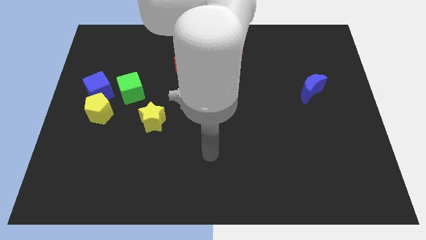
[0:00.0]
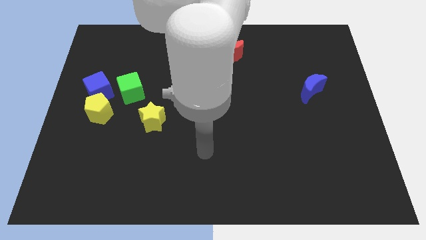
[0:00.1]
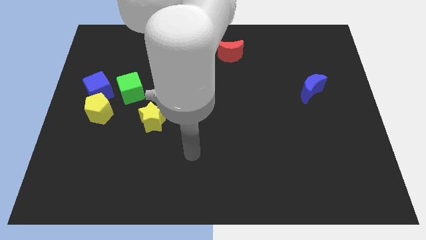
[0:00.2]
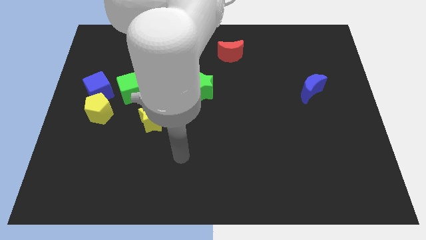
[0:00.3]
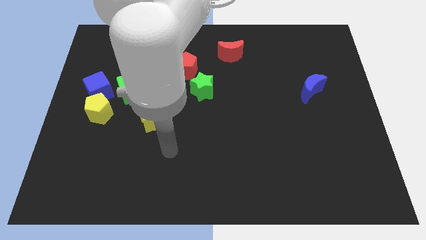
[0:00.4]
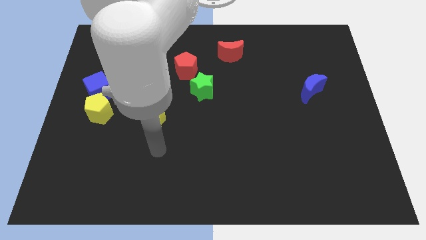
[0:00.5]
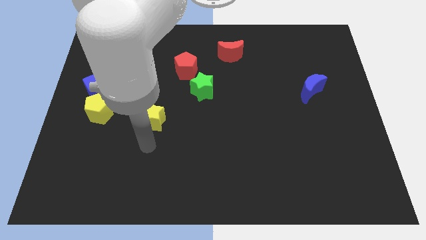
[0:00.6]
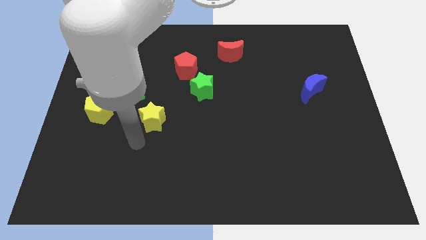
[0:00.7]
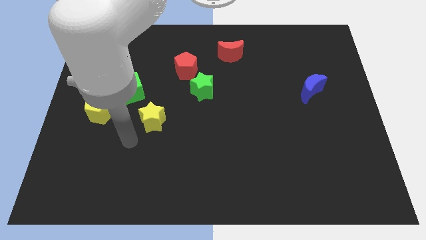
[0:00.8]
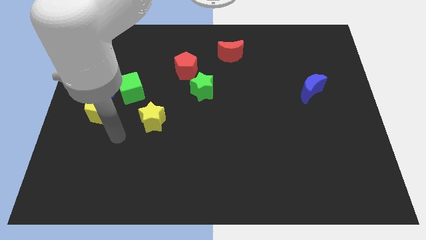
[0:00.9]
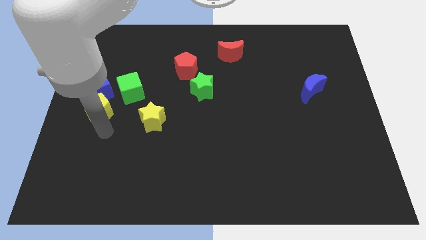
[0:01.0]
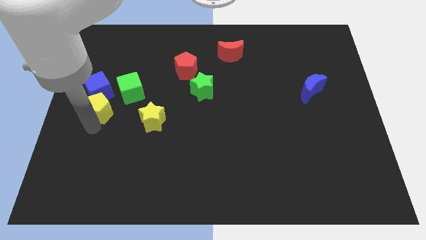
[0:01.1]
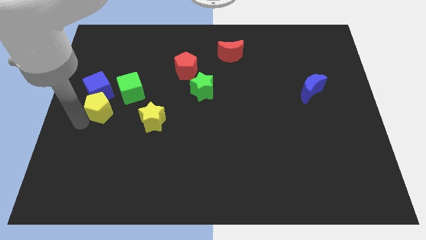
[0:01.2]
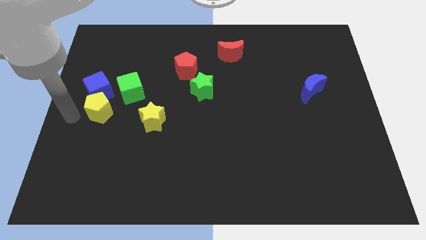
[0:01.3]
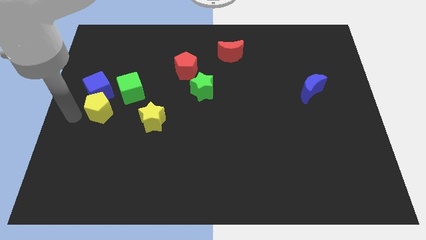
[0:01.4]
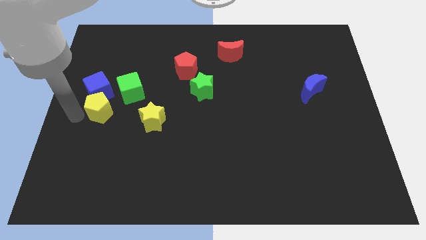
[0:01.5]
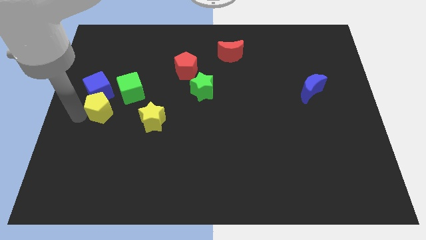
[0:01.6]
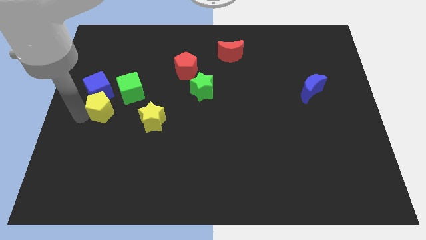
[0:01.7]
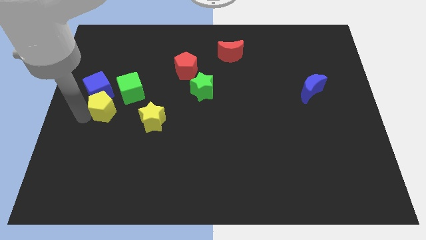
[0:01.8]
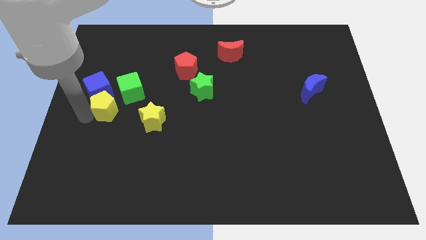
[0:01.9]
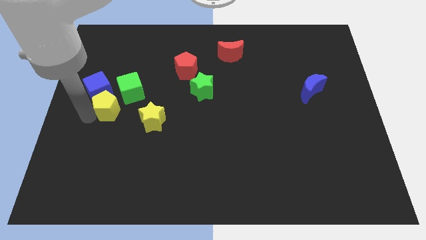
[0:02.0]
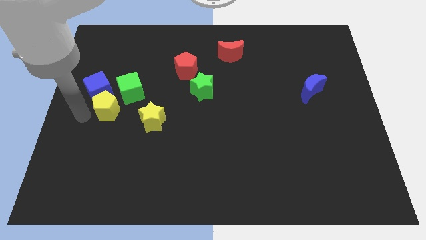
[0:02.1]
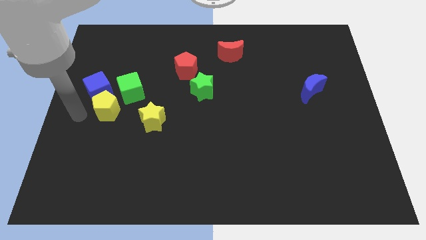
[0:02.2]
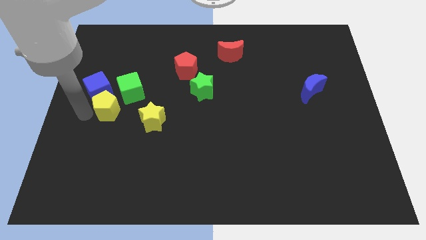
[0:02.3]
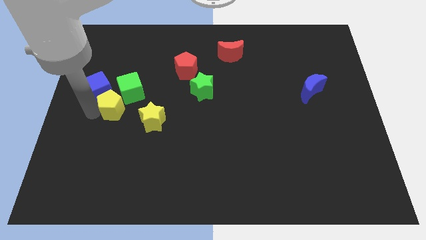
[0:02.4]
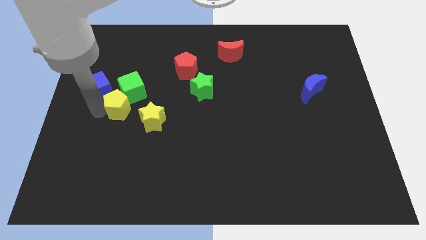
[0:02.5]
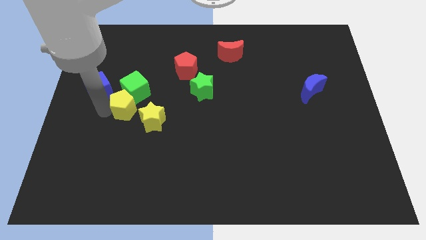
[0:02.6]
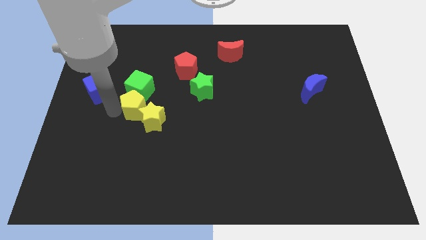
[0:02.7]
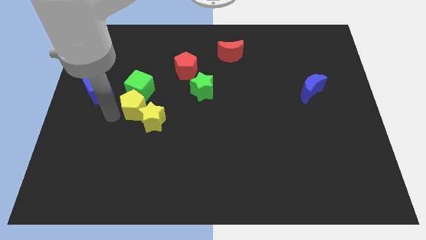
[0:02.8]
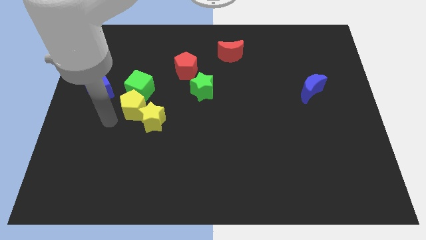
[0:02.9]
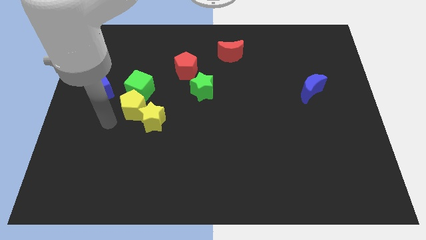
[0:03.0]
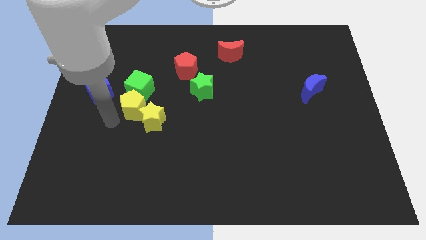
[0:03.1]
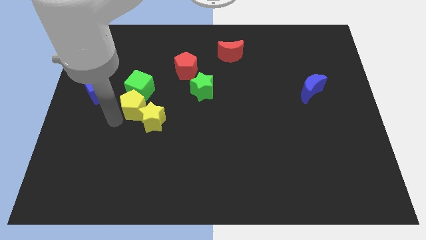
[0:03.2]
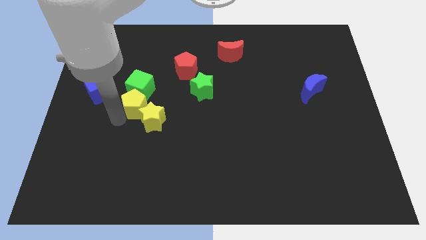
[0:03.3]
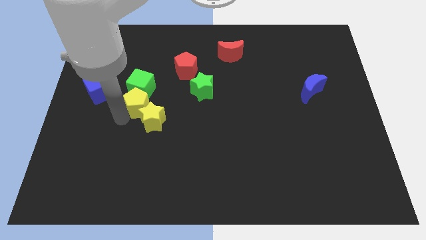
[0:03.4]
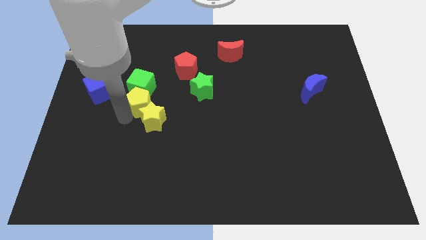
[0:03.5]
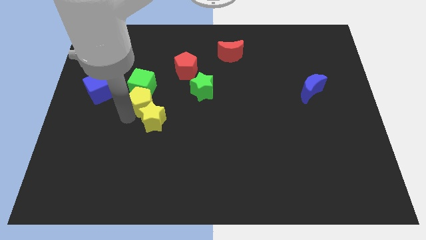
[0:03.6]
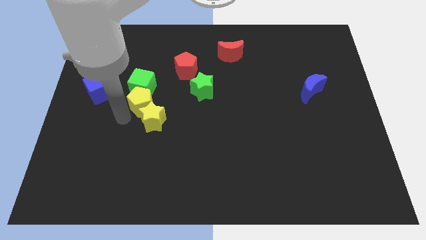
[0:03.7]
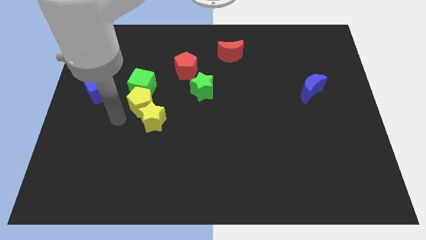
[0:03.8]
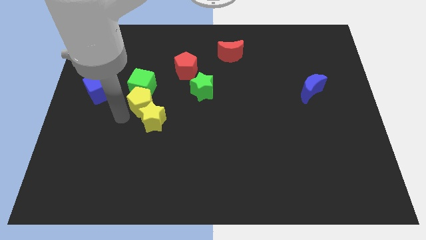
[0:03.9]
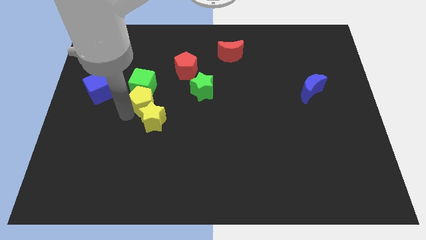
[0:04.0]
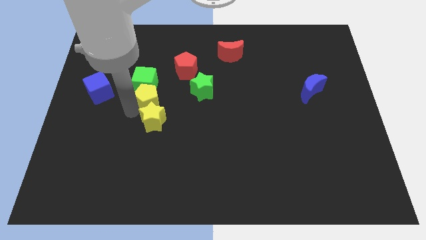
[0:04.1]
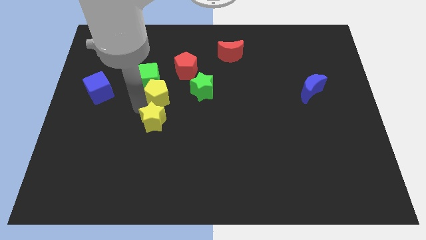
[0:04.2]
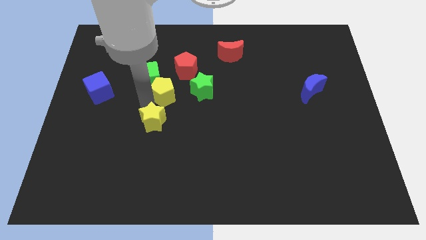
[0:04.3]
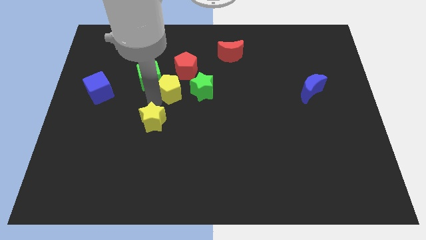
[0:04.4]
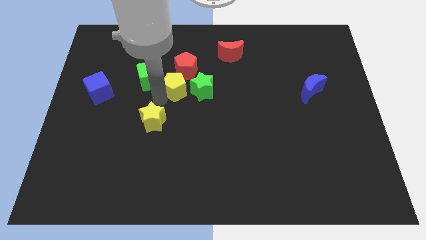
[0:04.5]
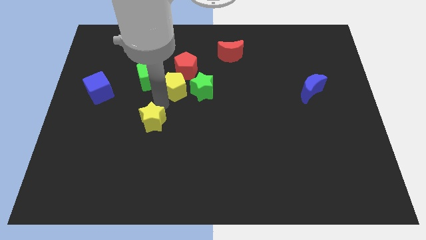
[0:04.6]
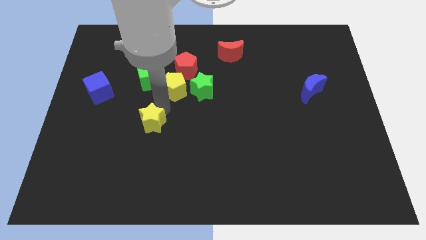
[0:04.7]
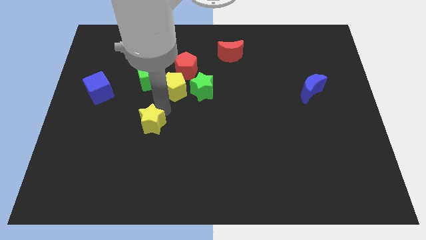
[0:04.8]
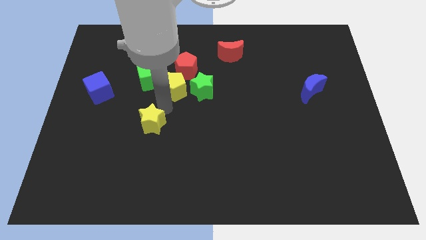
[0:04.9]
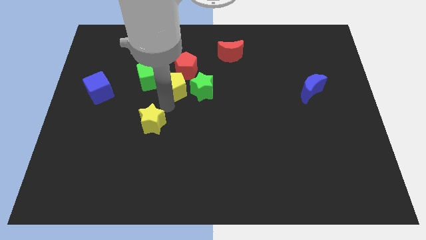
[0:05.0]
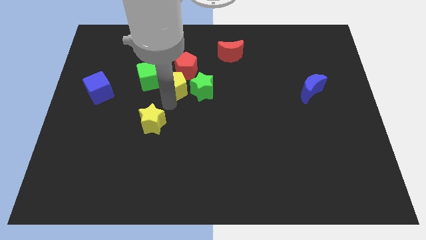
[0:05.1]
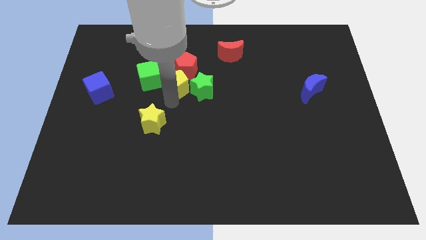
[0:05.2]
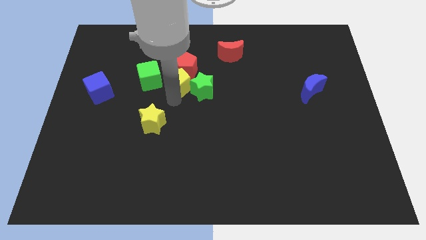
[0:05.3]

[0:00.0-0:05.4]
slide the yellow pentagon next to the red pentagon

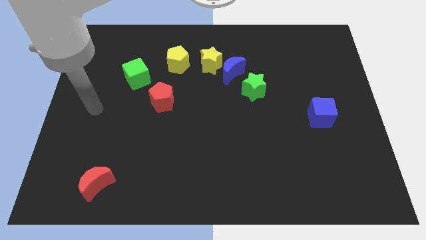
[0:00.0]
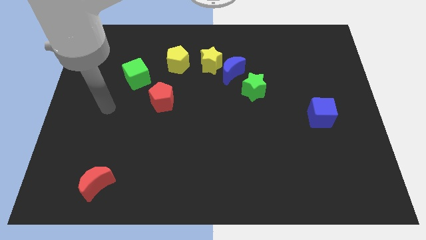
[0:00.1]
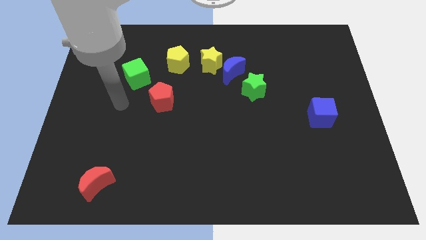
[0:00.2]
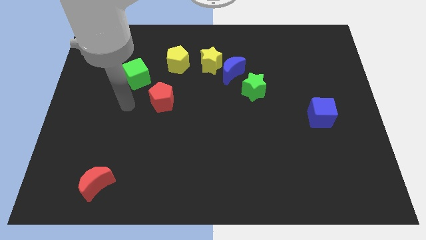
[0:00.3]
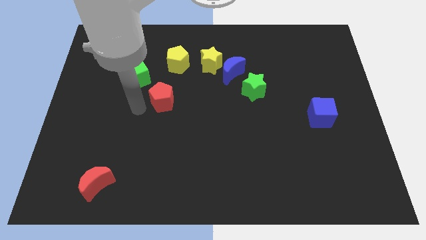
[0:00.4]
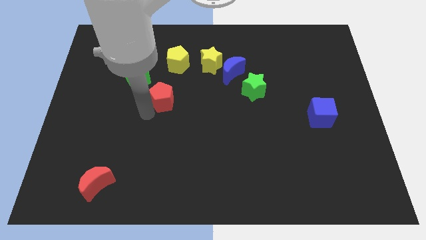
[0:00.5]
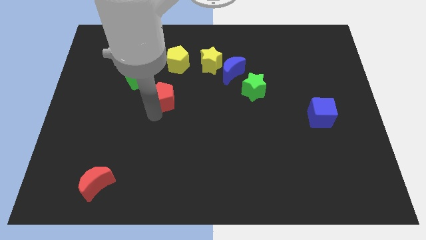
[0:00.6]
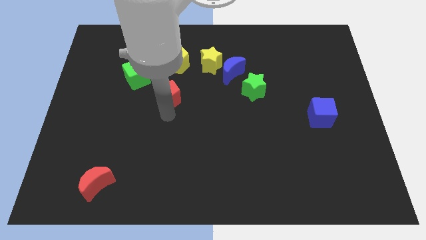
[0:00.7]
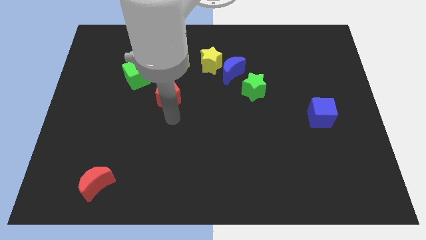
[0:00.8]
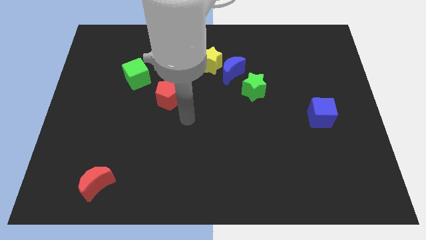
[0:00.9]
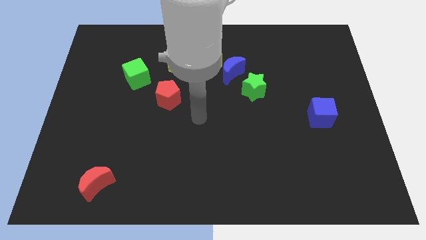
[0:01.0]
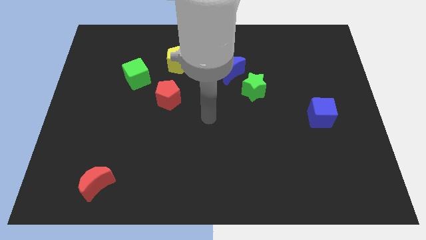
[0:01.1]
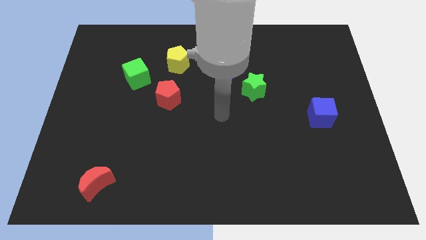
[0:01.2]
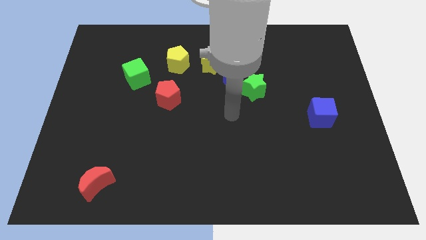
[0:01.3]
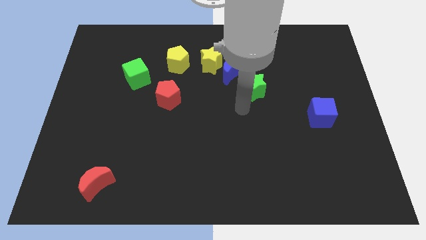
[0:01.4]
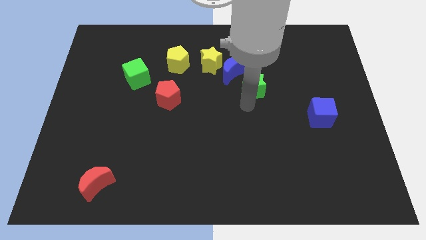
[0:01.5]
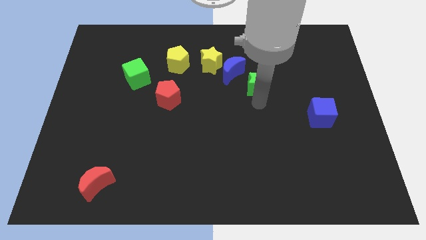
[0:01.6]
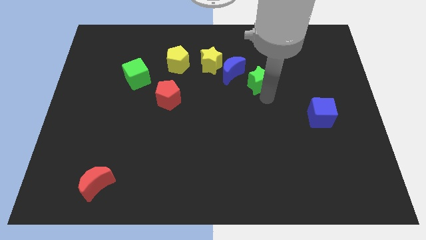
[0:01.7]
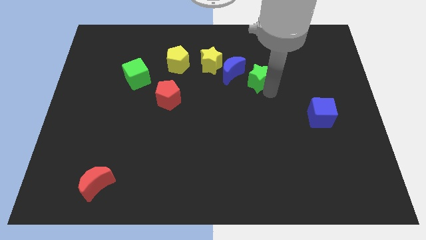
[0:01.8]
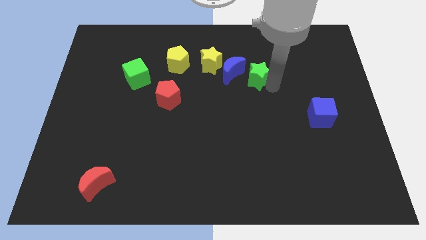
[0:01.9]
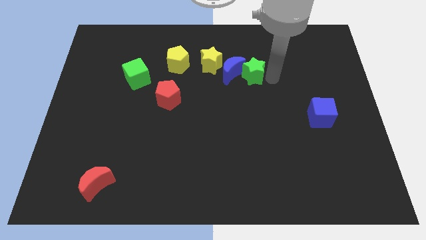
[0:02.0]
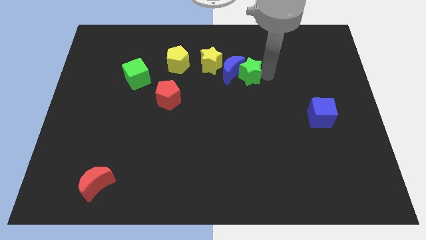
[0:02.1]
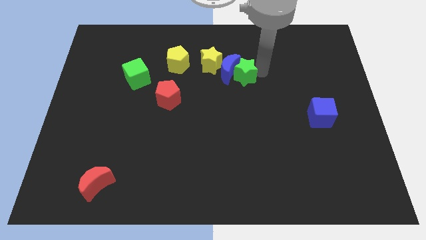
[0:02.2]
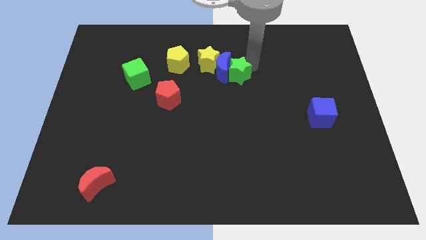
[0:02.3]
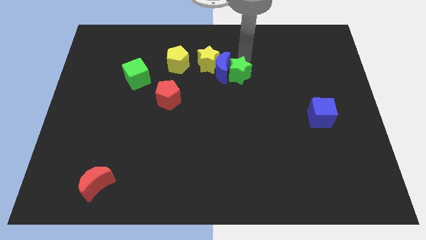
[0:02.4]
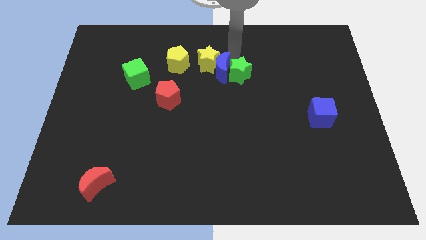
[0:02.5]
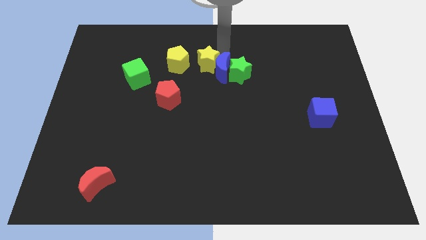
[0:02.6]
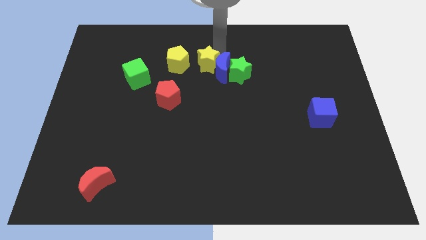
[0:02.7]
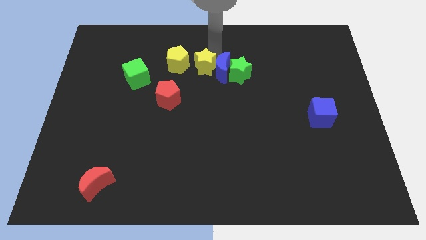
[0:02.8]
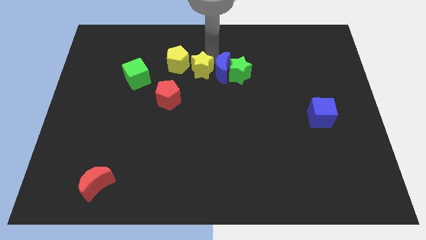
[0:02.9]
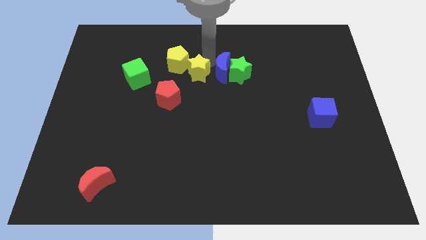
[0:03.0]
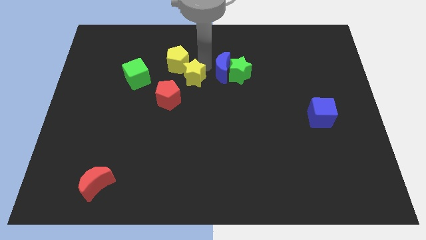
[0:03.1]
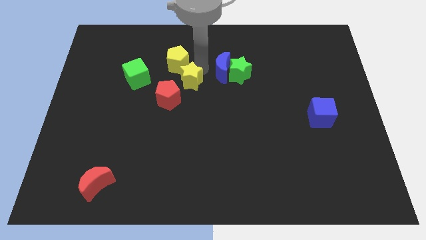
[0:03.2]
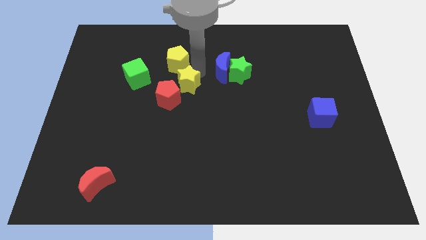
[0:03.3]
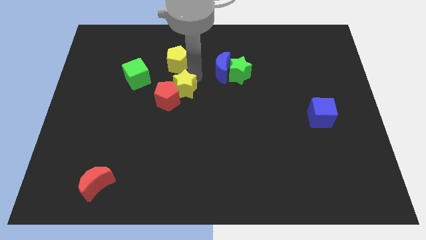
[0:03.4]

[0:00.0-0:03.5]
move the yellow star close to the red pentagon
